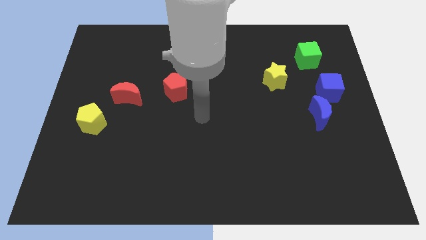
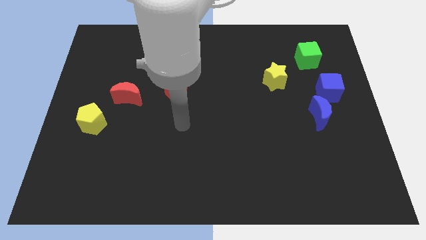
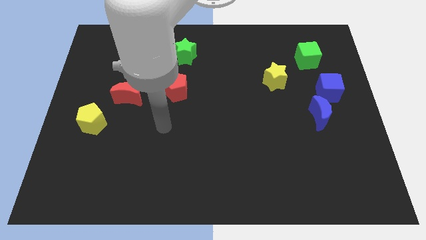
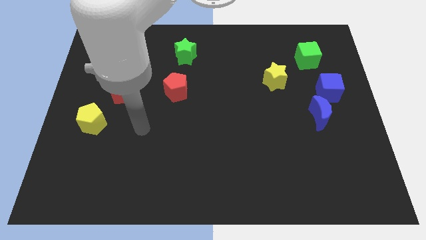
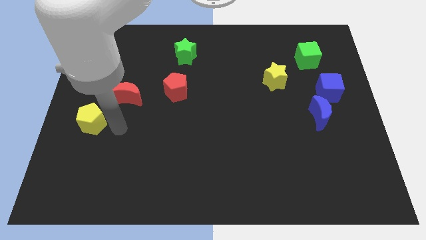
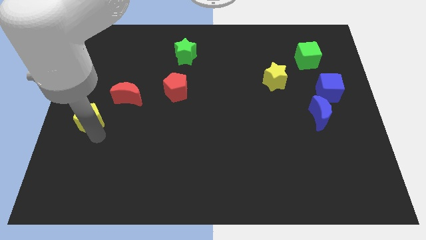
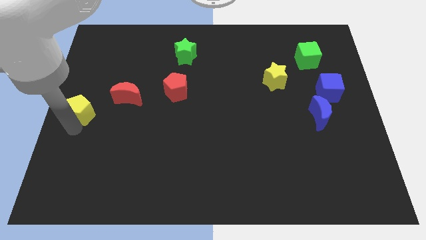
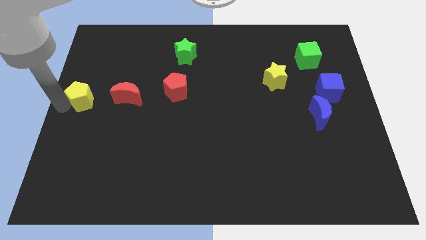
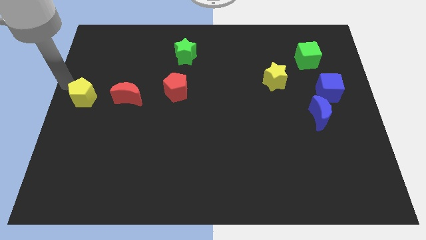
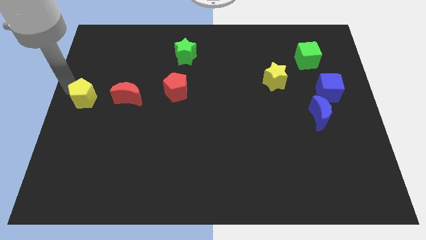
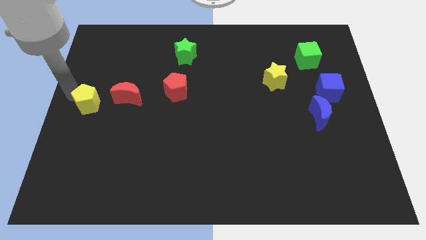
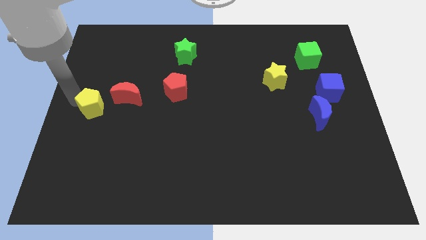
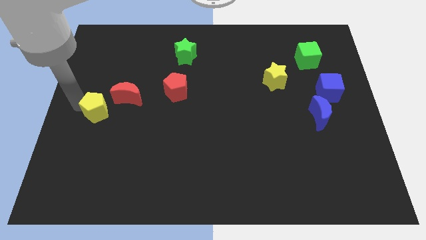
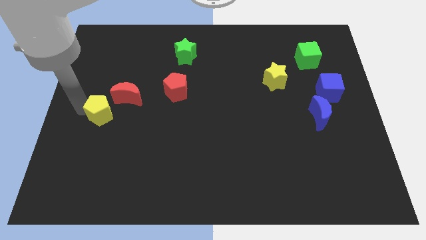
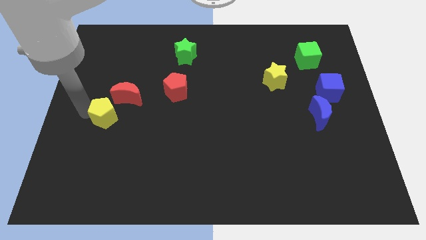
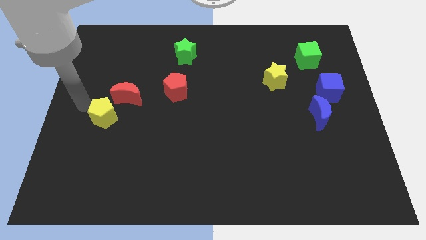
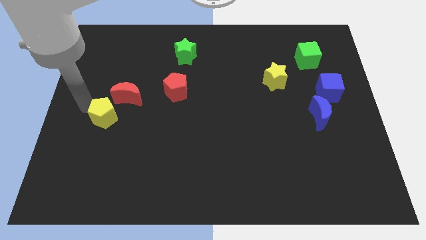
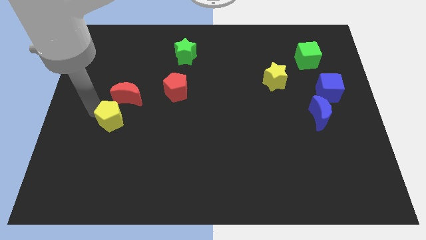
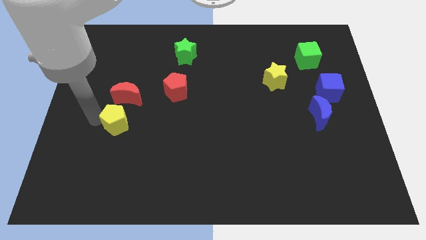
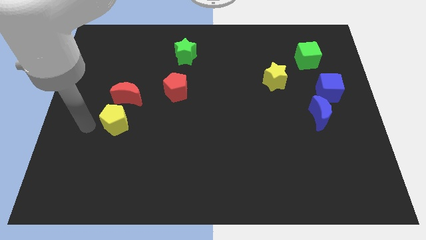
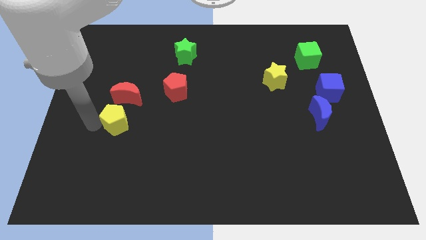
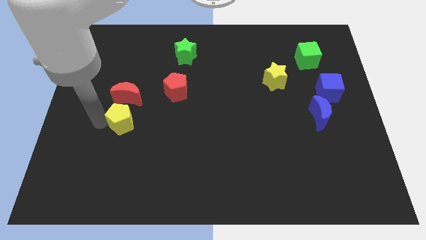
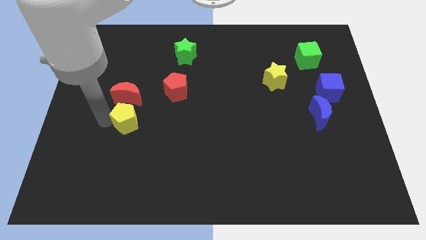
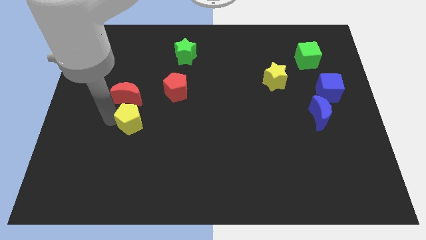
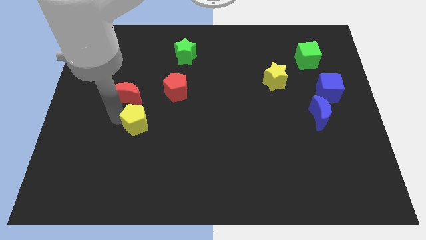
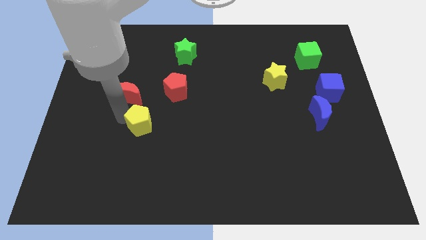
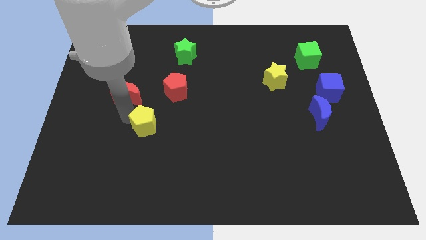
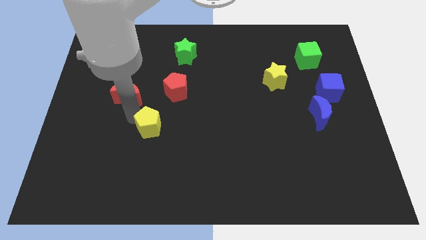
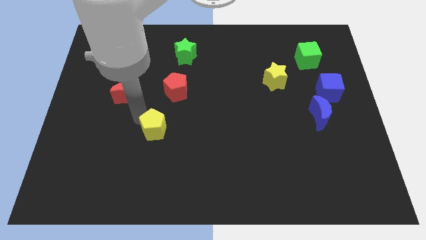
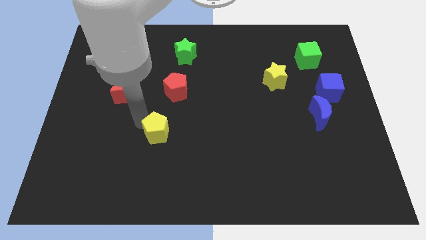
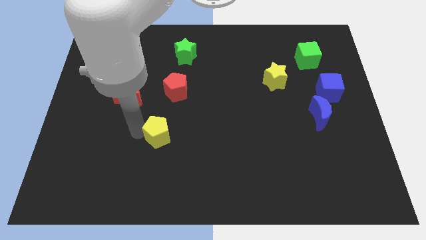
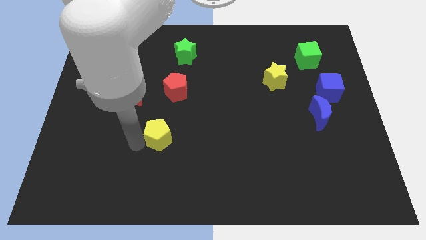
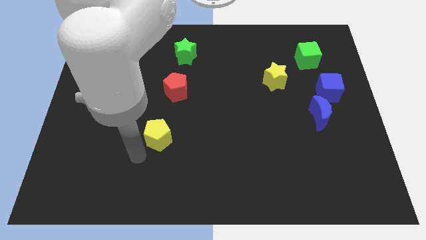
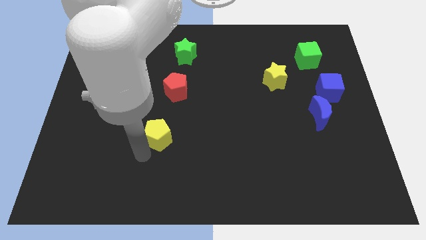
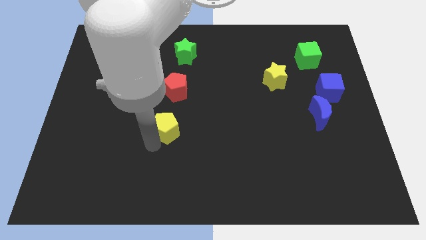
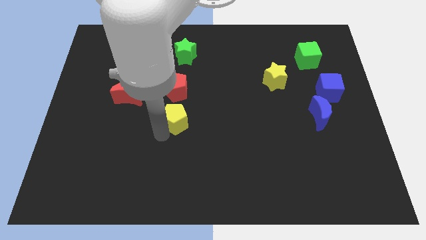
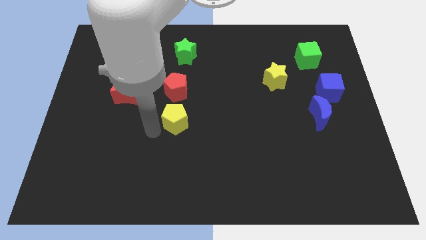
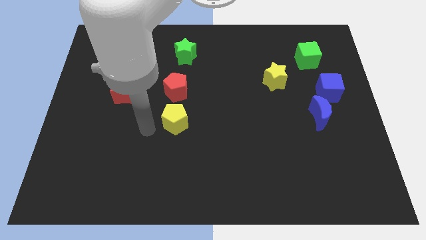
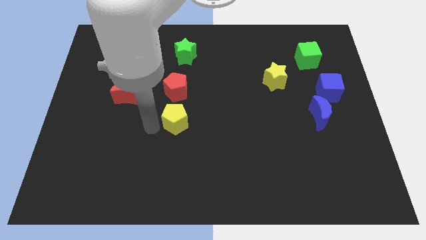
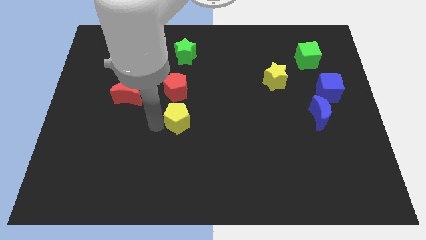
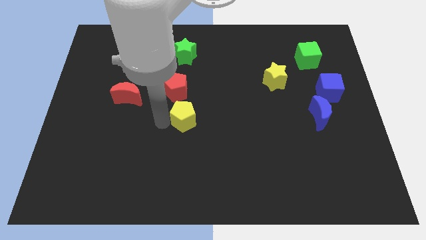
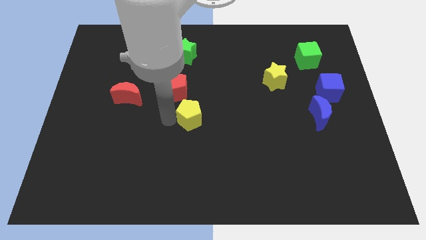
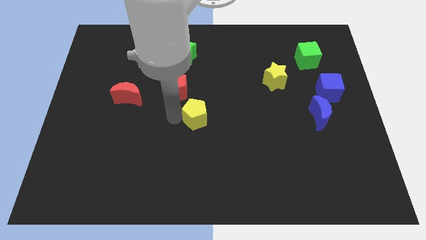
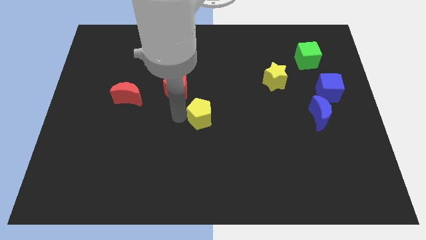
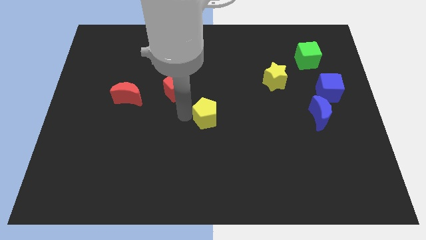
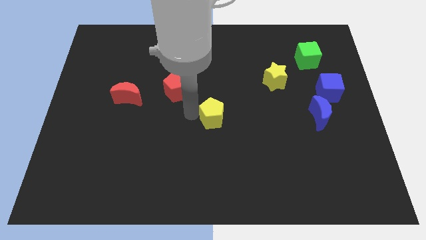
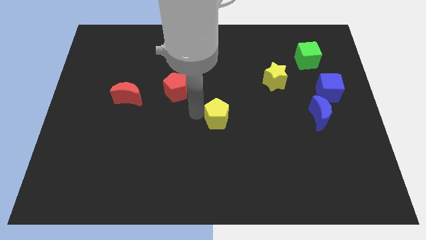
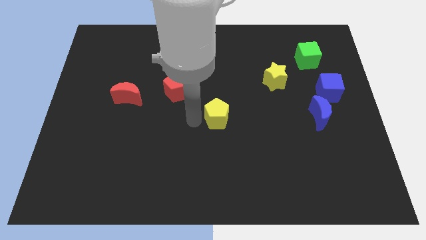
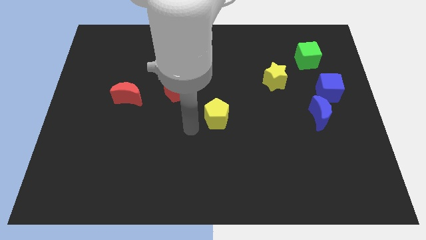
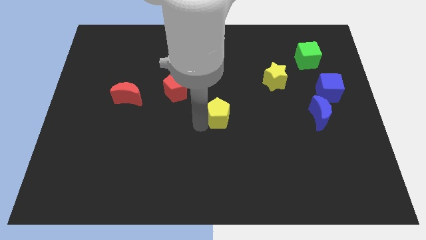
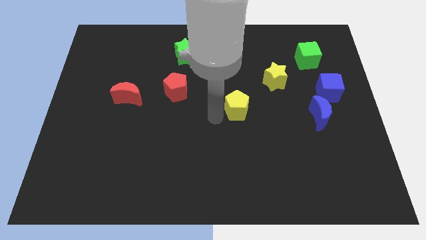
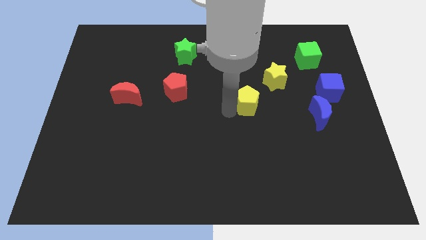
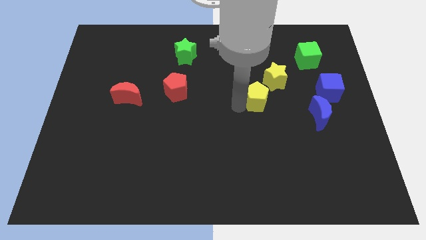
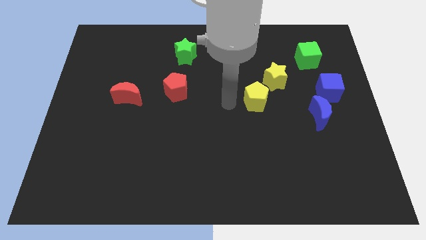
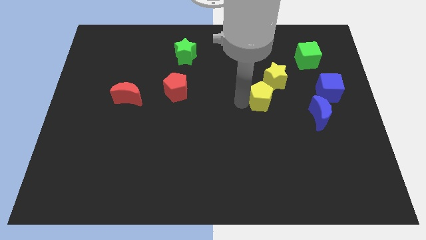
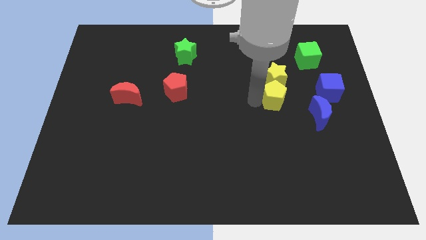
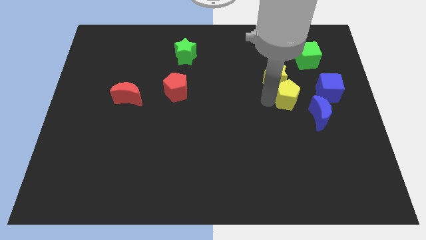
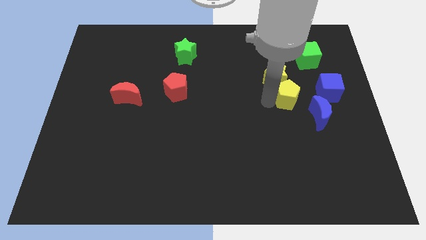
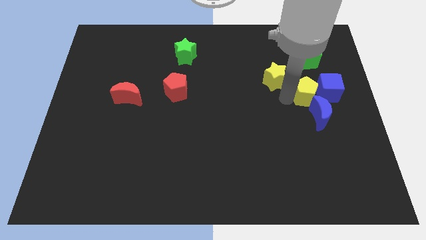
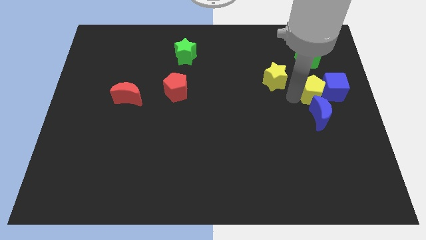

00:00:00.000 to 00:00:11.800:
slide the yellow pentagon close to the blue cube
